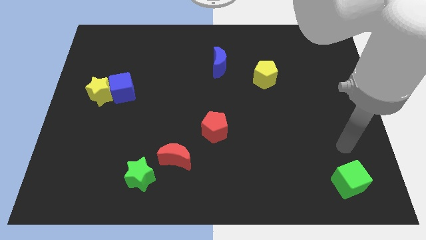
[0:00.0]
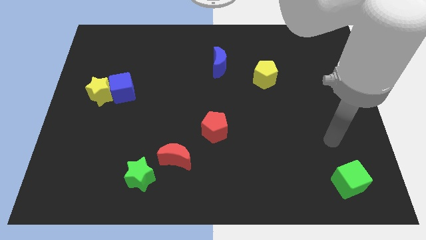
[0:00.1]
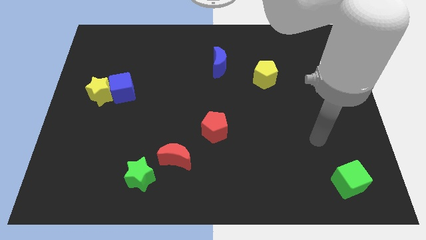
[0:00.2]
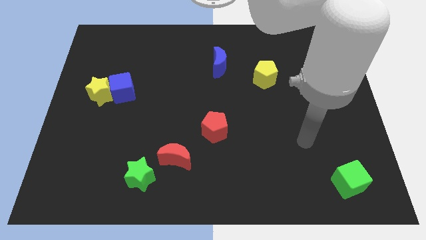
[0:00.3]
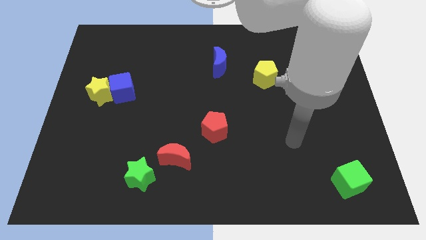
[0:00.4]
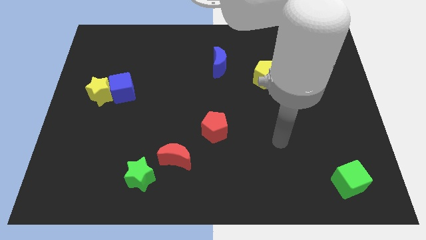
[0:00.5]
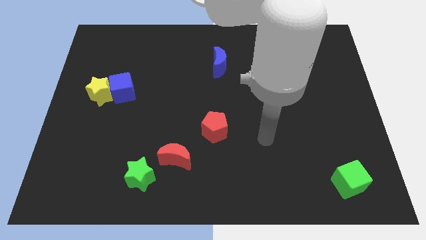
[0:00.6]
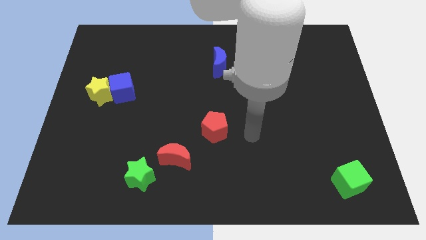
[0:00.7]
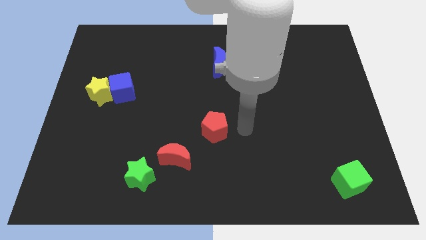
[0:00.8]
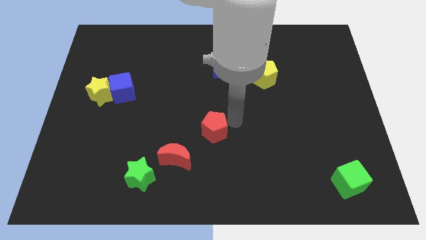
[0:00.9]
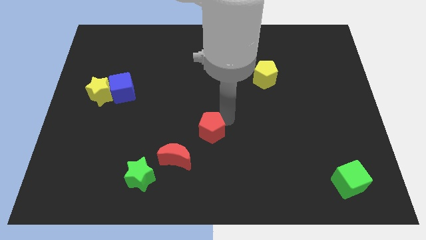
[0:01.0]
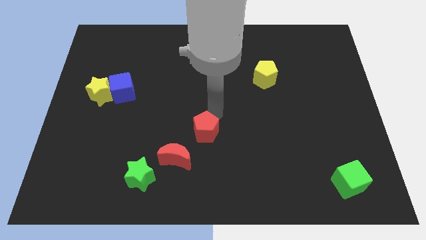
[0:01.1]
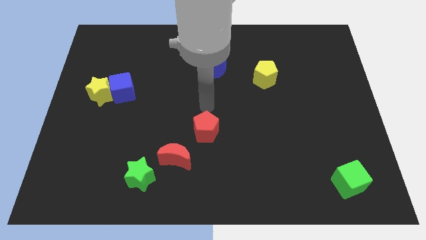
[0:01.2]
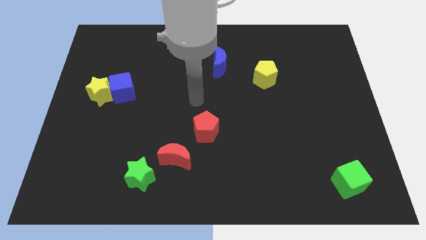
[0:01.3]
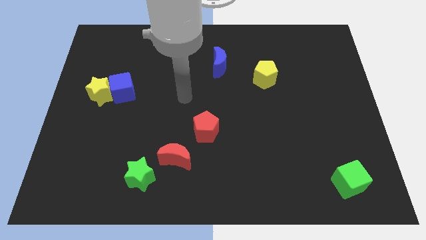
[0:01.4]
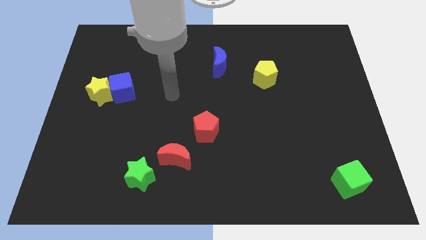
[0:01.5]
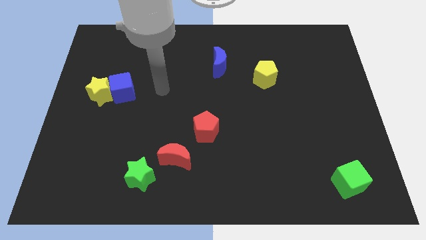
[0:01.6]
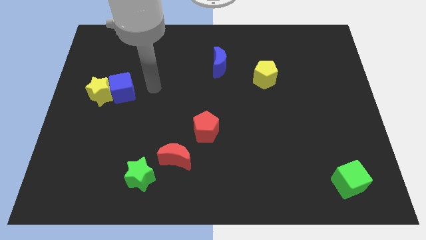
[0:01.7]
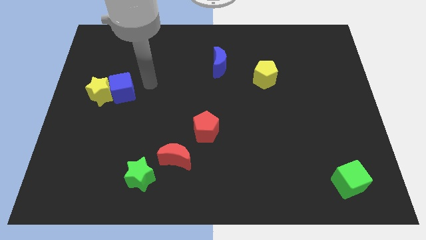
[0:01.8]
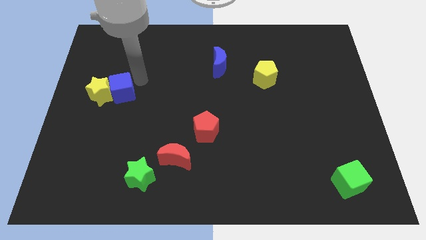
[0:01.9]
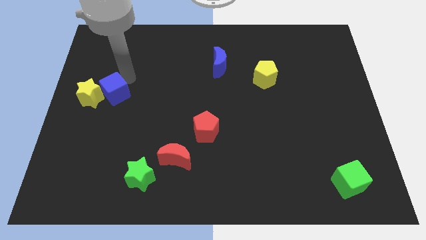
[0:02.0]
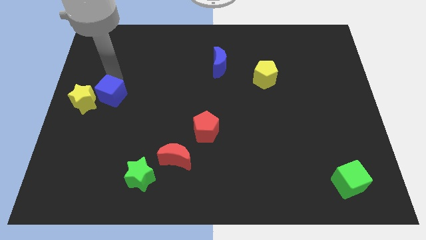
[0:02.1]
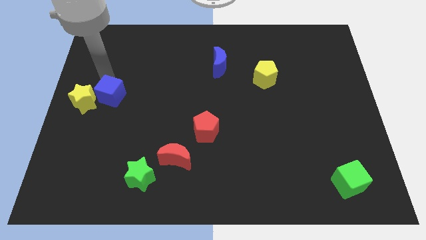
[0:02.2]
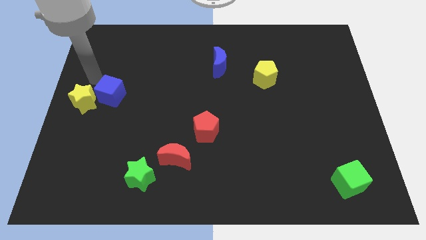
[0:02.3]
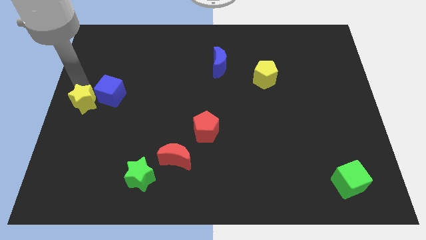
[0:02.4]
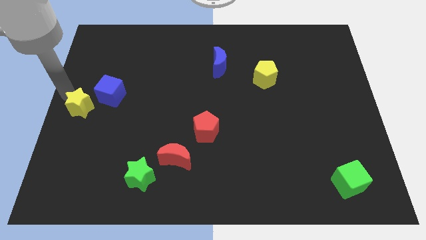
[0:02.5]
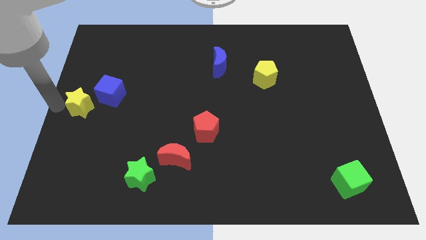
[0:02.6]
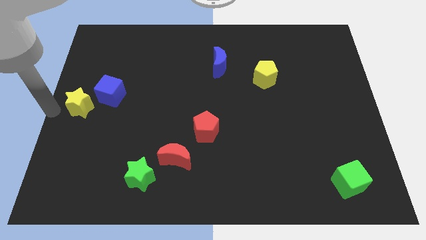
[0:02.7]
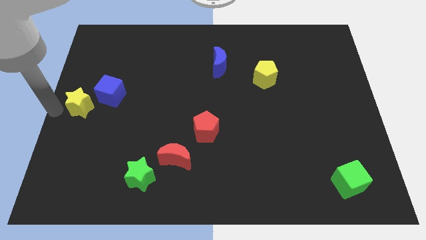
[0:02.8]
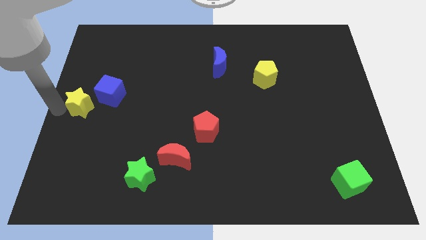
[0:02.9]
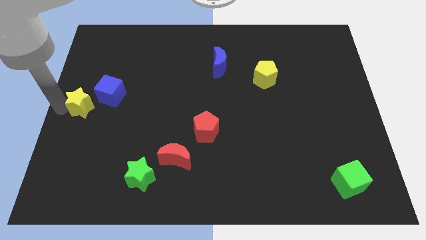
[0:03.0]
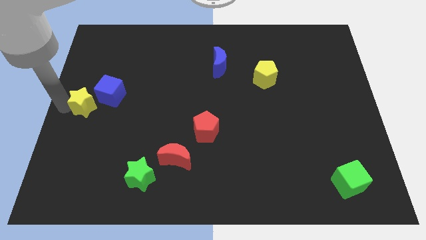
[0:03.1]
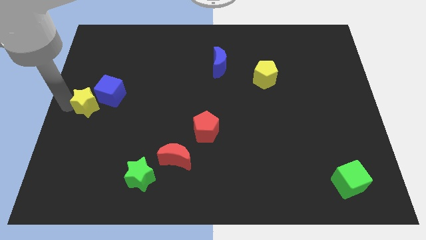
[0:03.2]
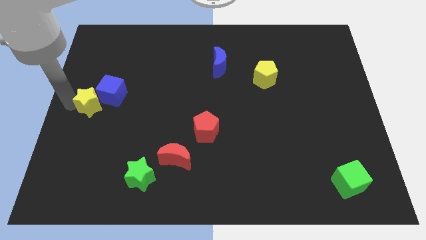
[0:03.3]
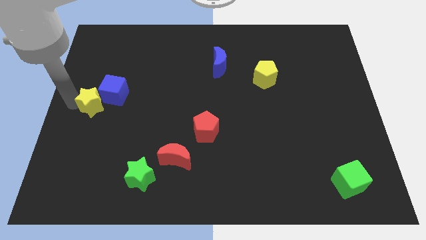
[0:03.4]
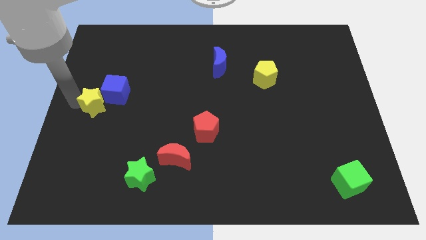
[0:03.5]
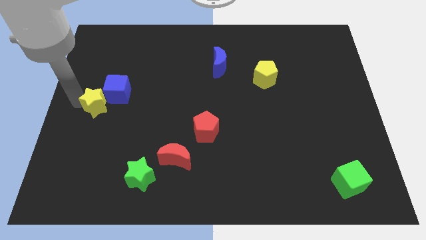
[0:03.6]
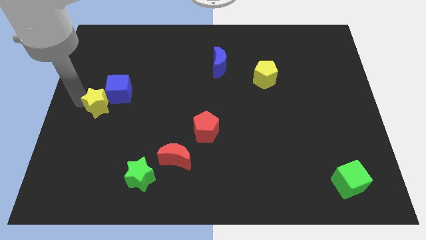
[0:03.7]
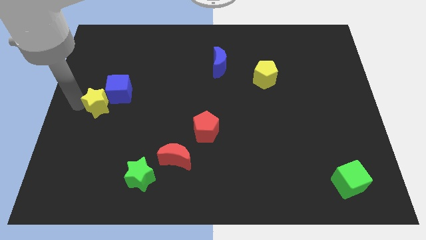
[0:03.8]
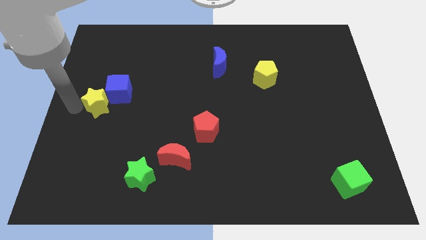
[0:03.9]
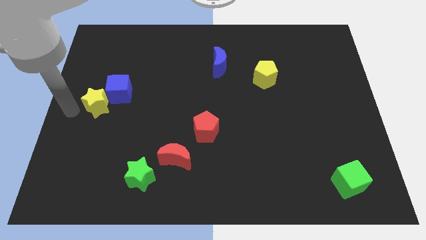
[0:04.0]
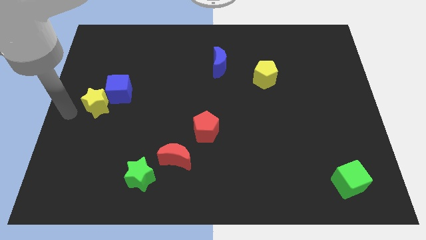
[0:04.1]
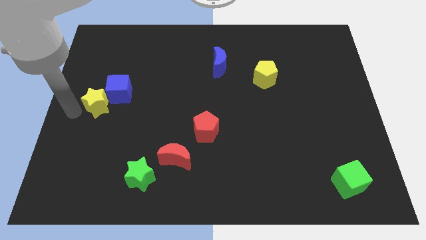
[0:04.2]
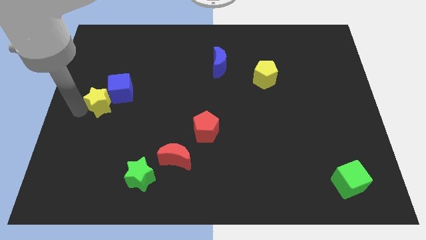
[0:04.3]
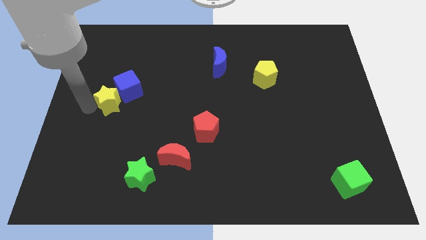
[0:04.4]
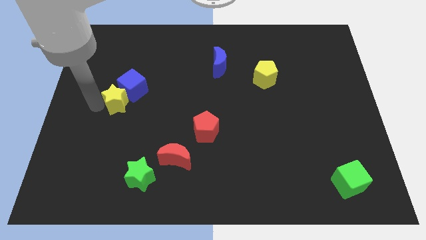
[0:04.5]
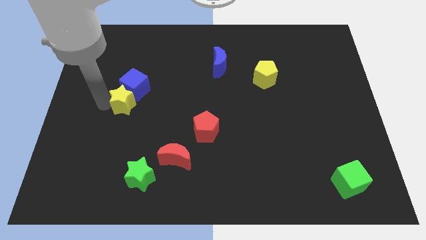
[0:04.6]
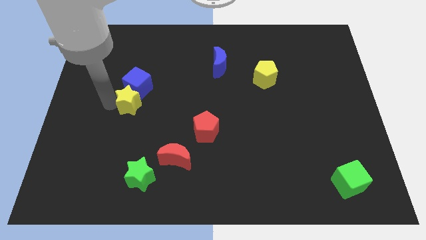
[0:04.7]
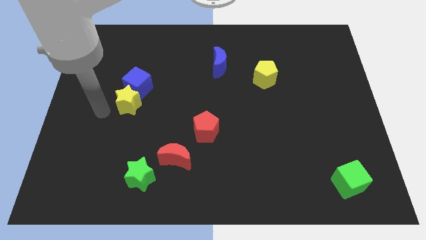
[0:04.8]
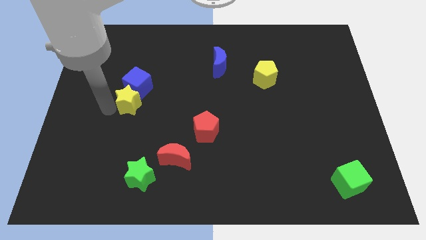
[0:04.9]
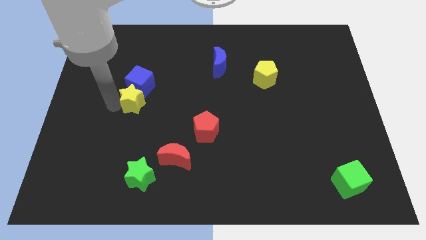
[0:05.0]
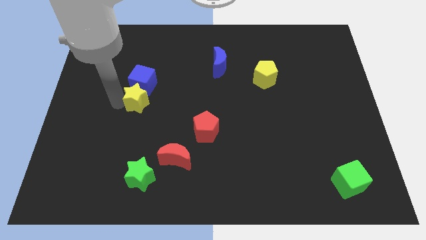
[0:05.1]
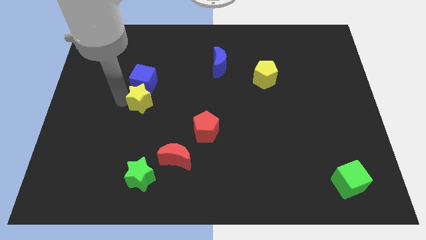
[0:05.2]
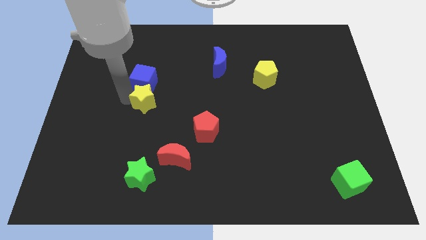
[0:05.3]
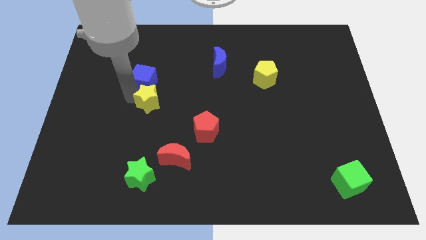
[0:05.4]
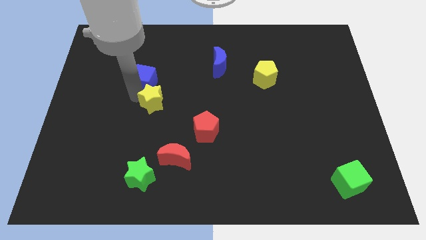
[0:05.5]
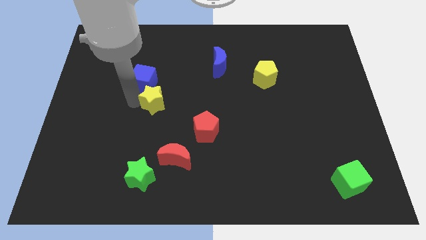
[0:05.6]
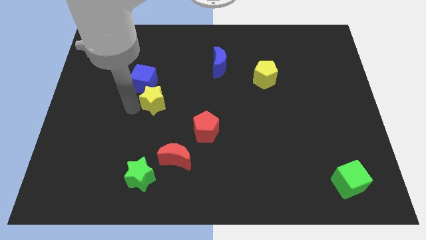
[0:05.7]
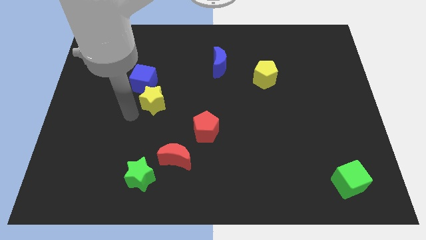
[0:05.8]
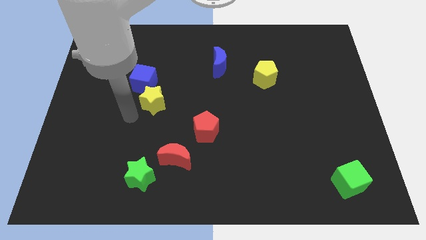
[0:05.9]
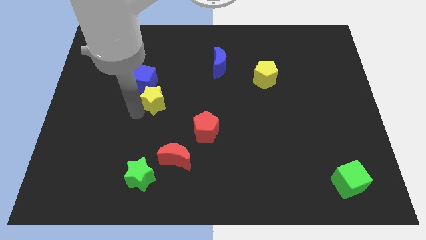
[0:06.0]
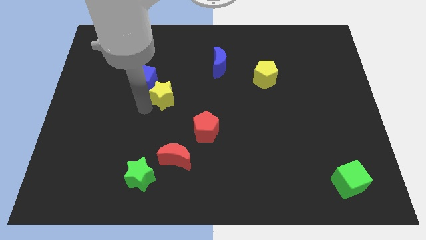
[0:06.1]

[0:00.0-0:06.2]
put the yellow star right of the blue cube
